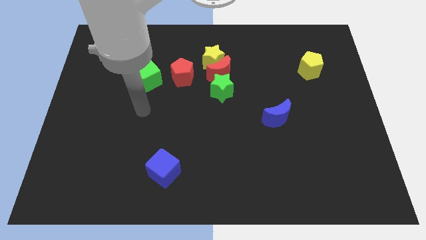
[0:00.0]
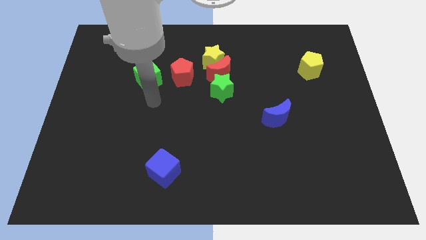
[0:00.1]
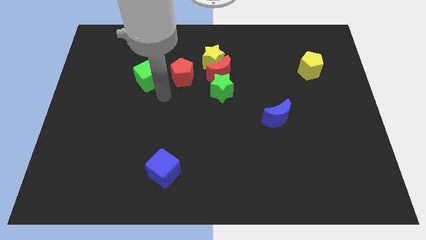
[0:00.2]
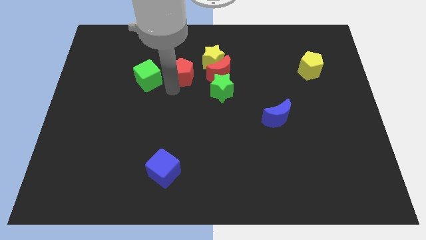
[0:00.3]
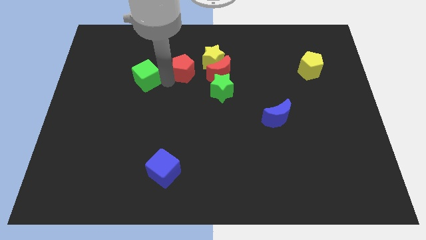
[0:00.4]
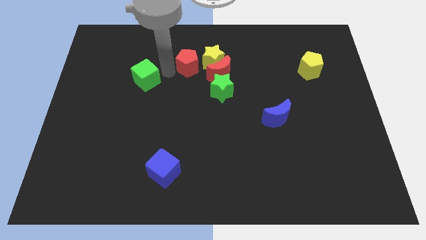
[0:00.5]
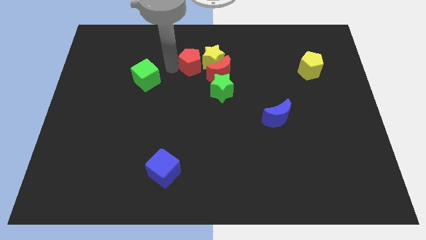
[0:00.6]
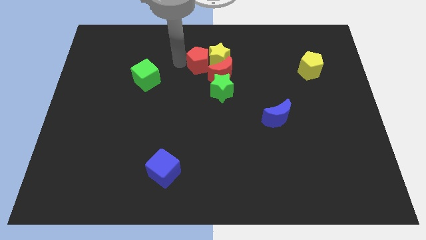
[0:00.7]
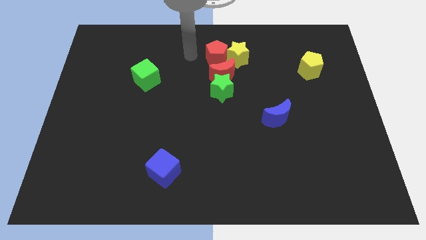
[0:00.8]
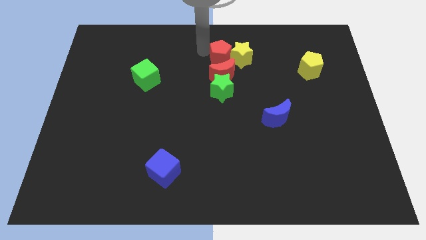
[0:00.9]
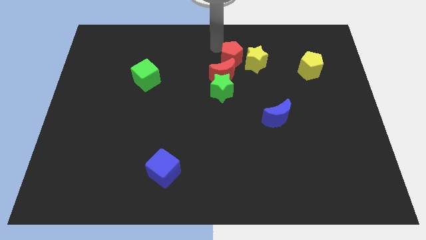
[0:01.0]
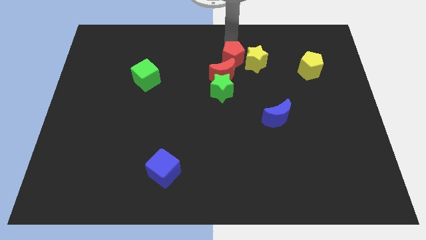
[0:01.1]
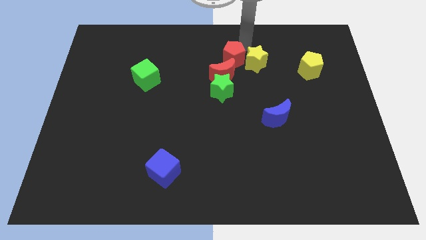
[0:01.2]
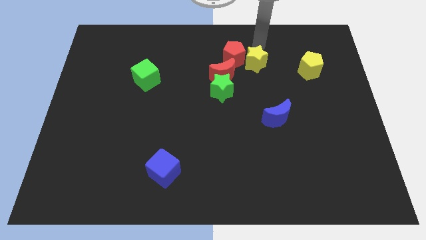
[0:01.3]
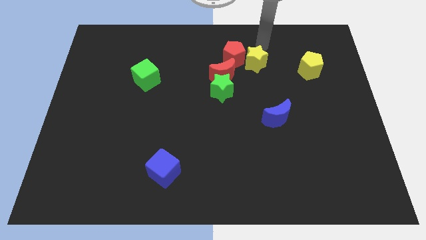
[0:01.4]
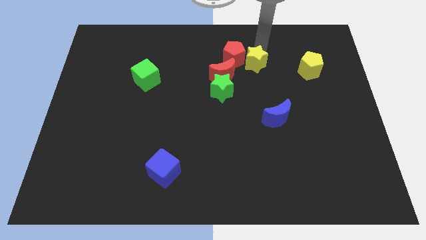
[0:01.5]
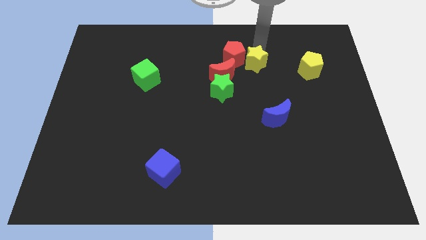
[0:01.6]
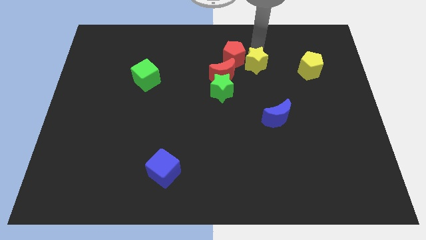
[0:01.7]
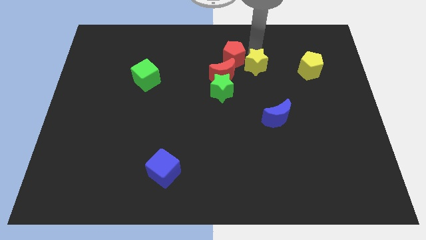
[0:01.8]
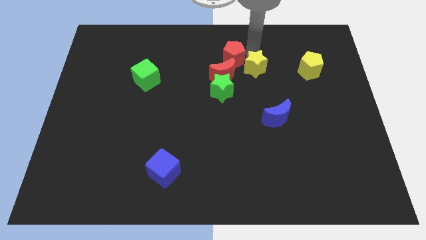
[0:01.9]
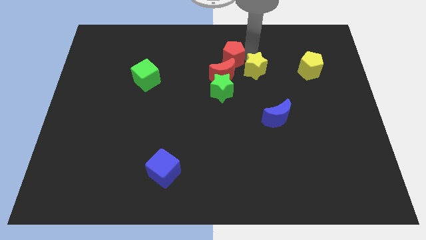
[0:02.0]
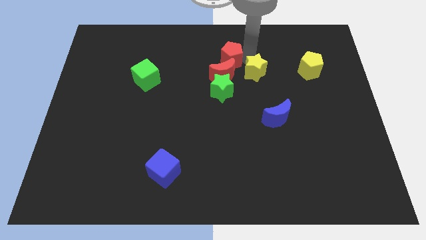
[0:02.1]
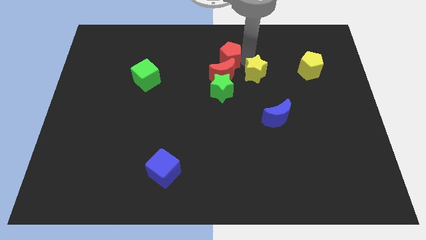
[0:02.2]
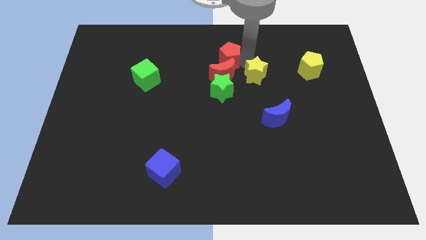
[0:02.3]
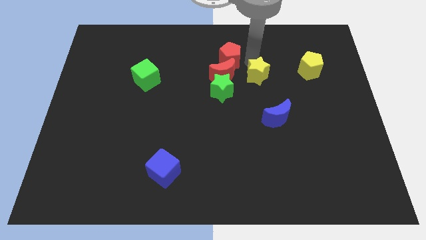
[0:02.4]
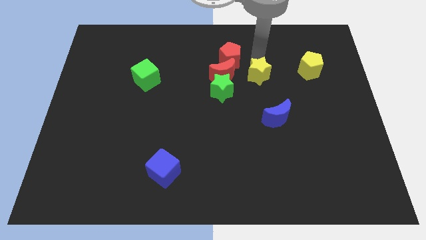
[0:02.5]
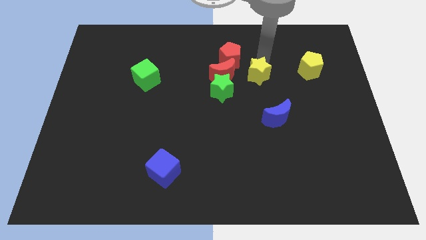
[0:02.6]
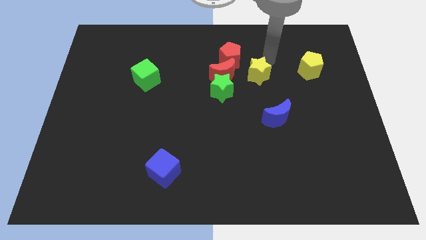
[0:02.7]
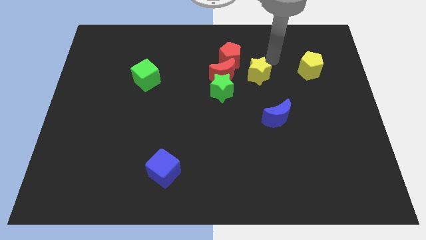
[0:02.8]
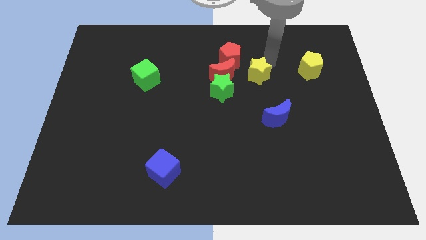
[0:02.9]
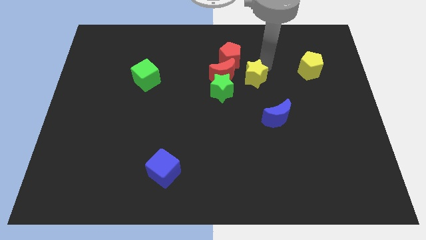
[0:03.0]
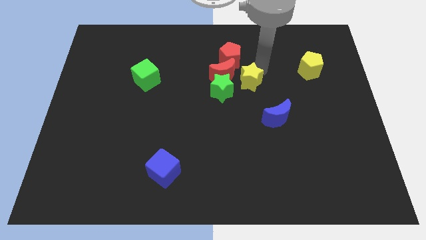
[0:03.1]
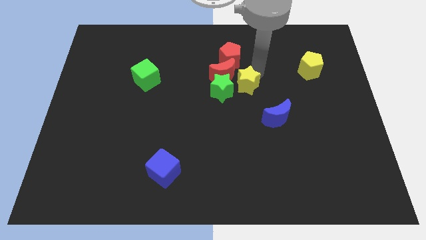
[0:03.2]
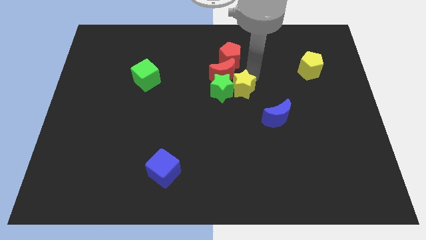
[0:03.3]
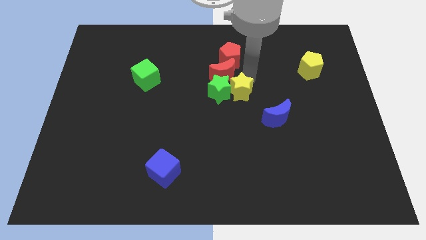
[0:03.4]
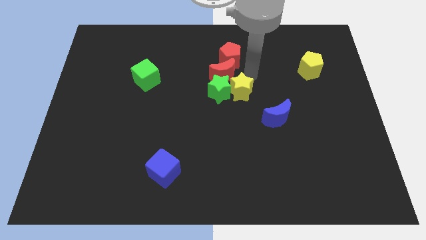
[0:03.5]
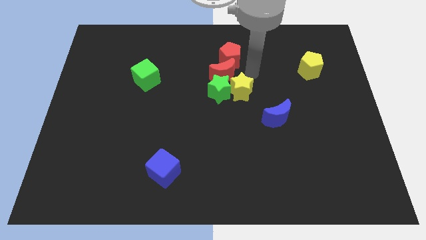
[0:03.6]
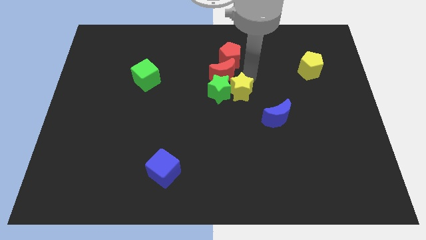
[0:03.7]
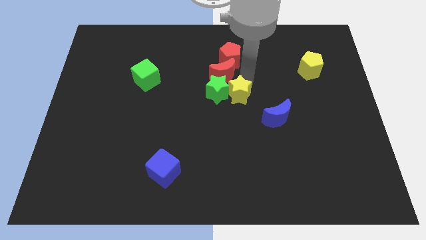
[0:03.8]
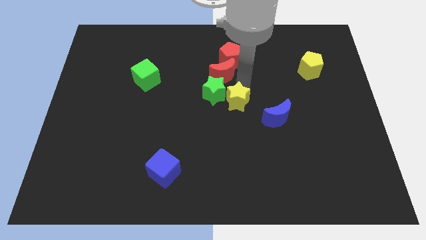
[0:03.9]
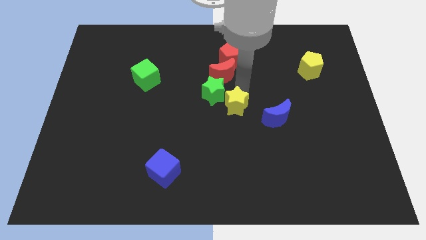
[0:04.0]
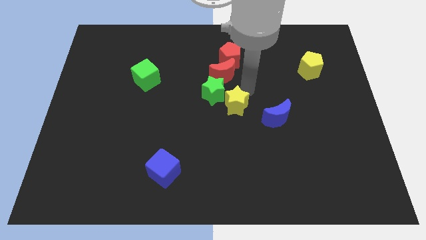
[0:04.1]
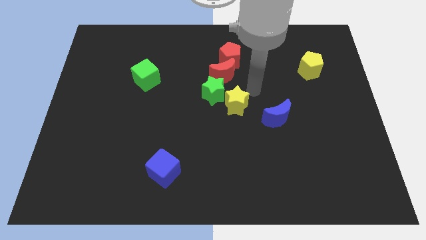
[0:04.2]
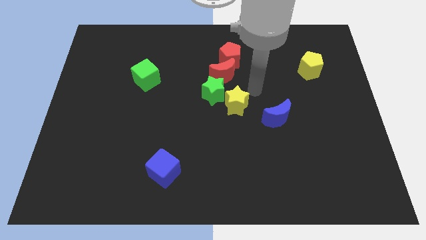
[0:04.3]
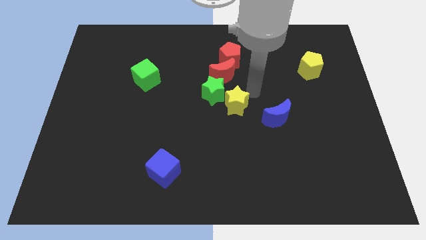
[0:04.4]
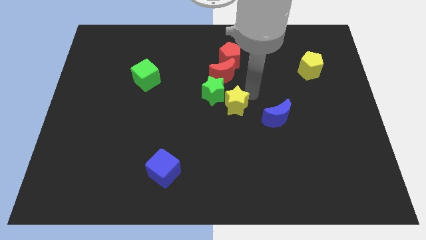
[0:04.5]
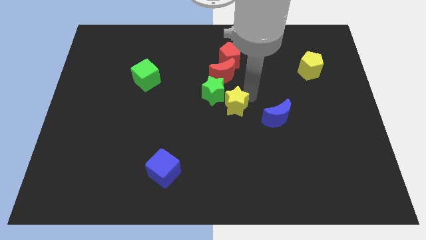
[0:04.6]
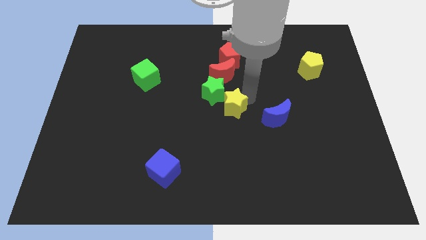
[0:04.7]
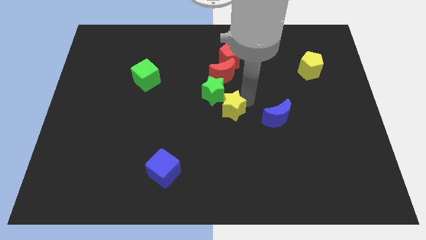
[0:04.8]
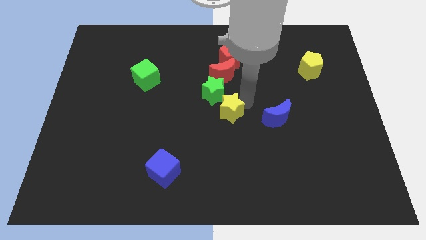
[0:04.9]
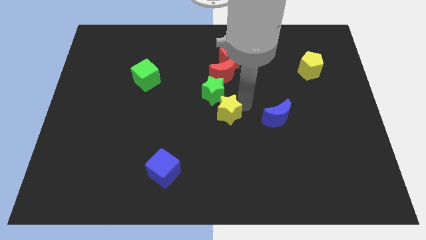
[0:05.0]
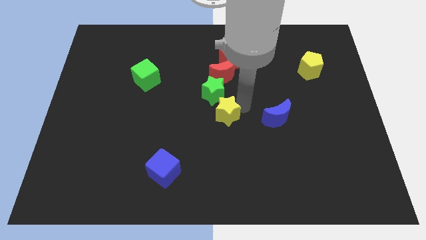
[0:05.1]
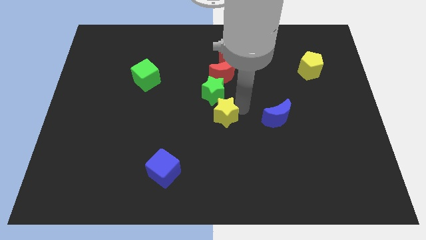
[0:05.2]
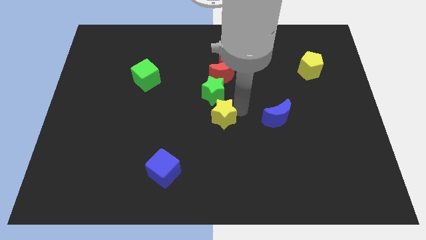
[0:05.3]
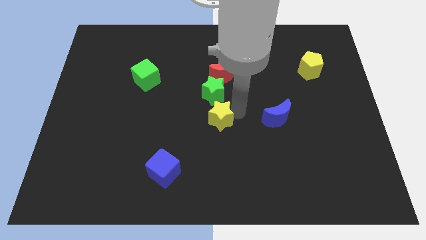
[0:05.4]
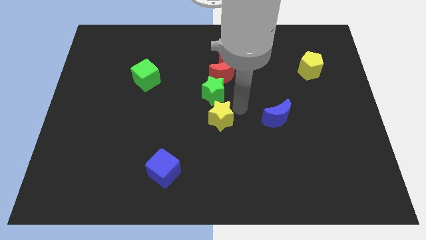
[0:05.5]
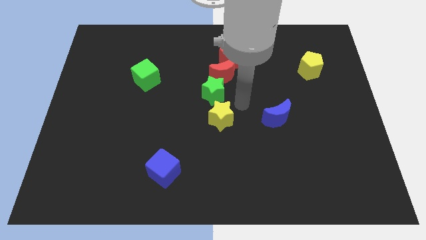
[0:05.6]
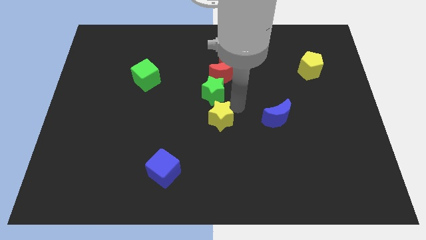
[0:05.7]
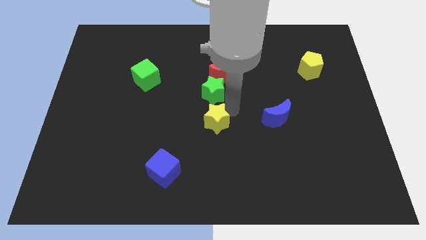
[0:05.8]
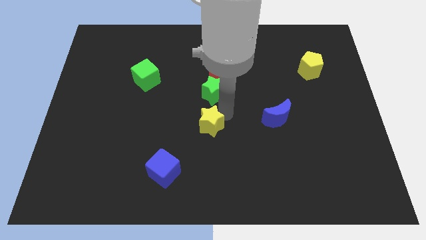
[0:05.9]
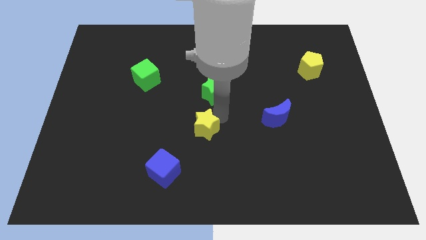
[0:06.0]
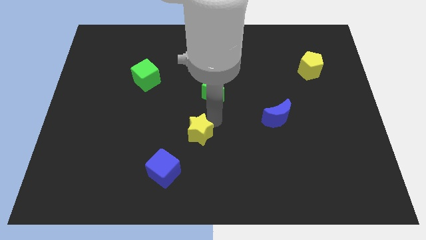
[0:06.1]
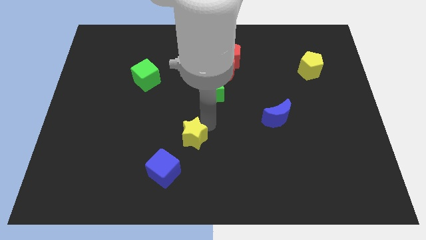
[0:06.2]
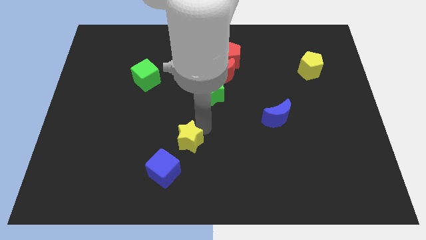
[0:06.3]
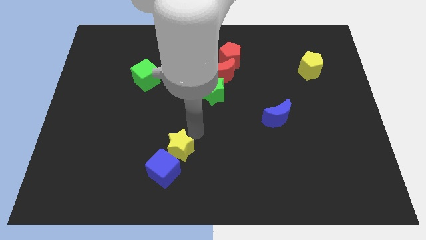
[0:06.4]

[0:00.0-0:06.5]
push the yellow star towards the blue cube

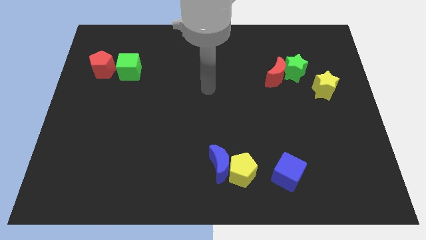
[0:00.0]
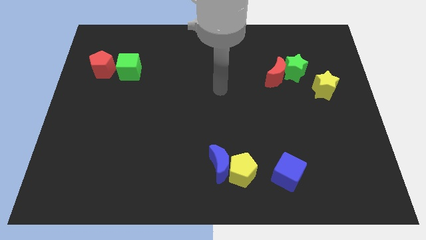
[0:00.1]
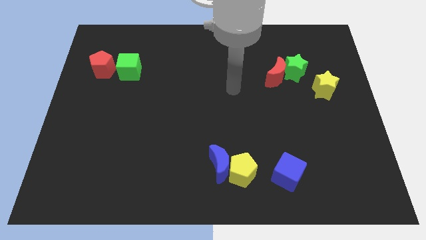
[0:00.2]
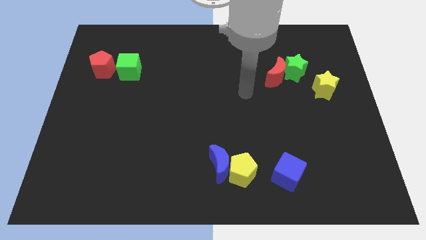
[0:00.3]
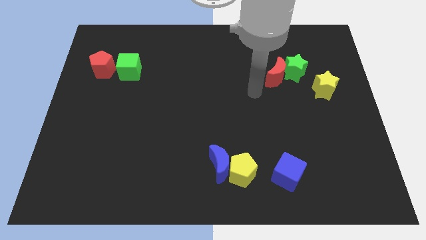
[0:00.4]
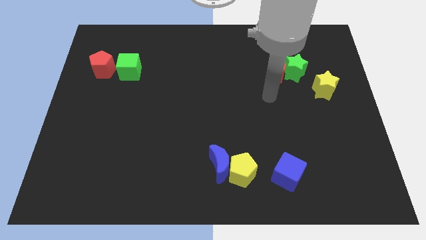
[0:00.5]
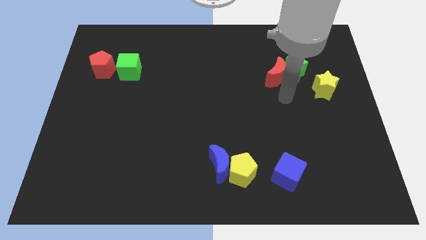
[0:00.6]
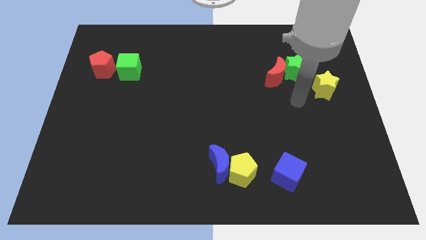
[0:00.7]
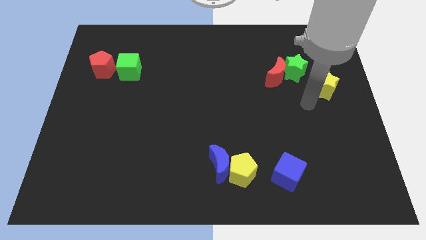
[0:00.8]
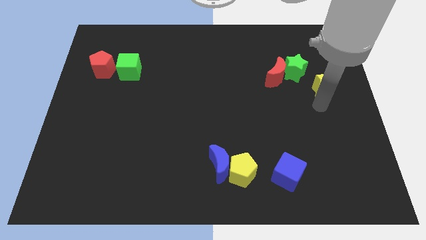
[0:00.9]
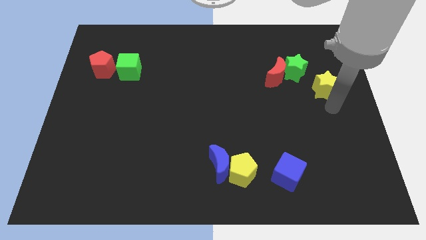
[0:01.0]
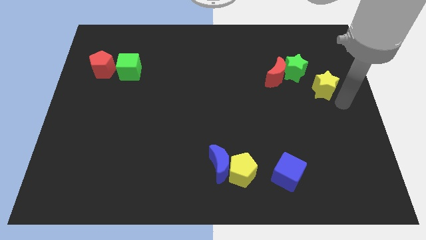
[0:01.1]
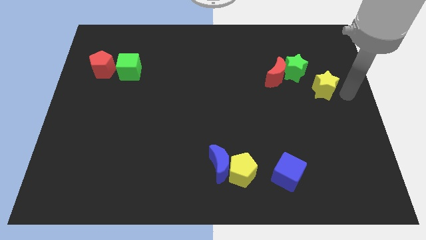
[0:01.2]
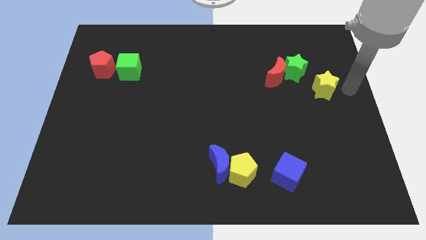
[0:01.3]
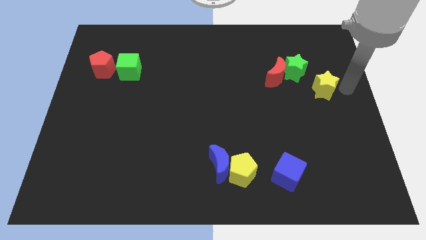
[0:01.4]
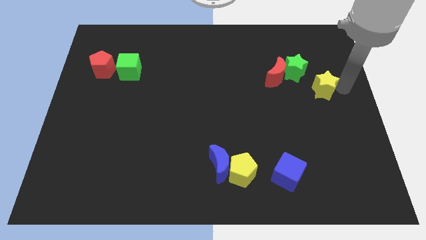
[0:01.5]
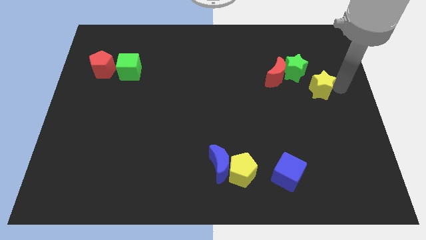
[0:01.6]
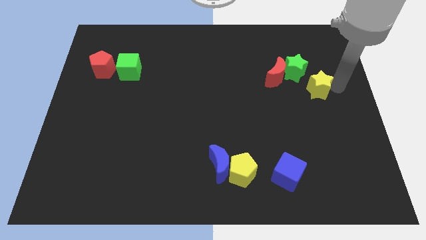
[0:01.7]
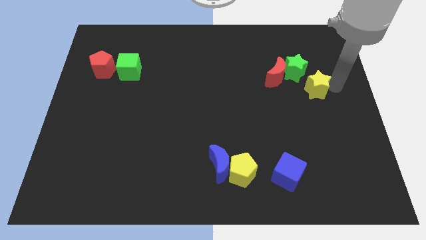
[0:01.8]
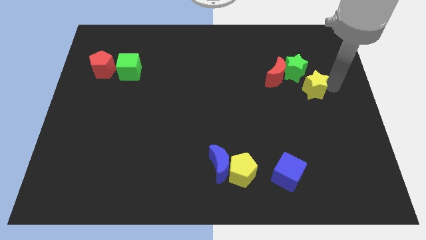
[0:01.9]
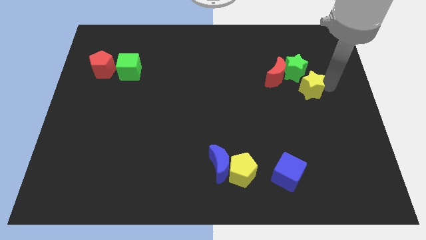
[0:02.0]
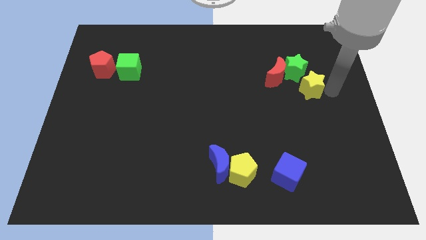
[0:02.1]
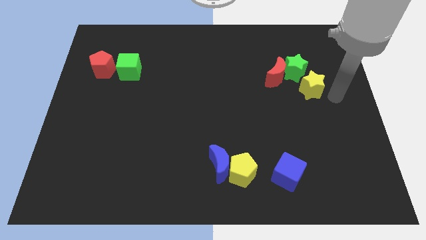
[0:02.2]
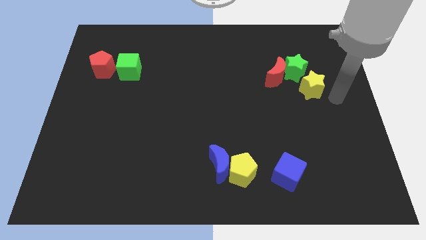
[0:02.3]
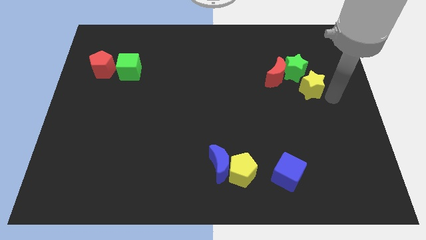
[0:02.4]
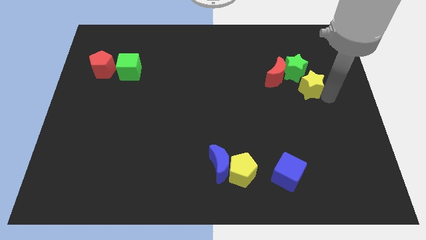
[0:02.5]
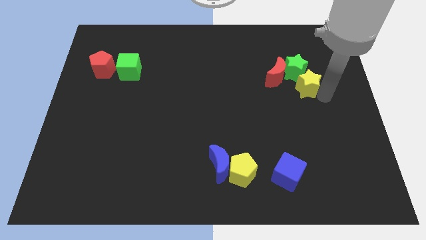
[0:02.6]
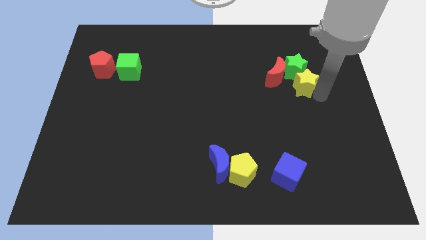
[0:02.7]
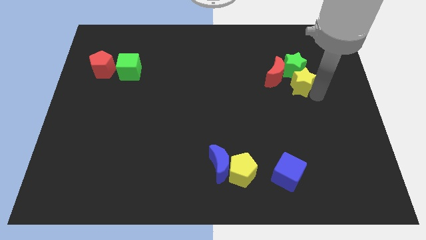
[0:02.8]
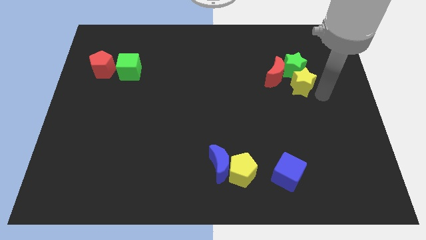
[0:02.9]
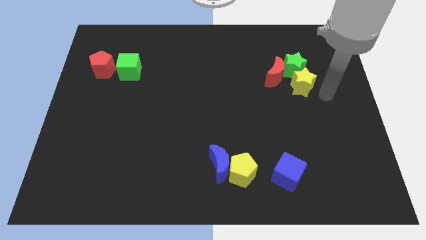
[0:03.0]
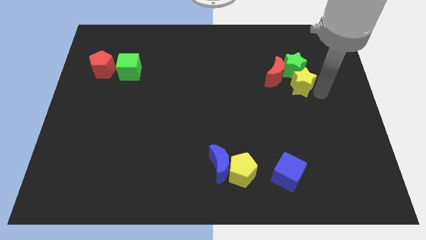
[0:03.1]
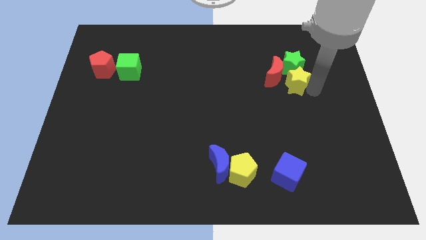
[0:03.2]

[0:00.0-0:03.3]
push the yellow star next to the red moon
